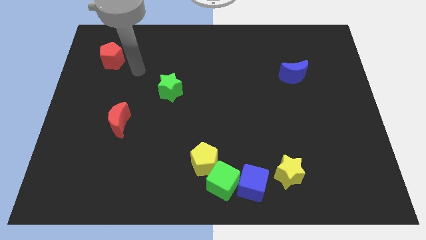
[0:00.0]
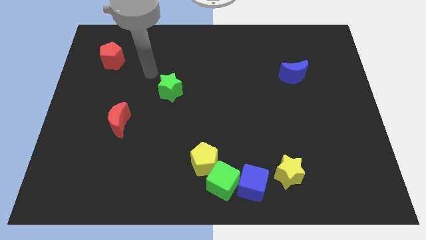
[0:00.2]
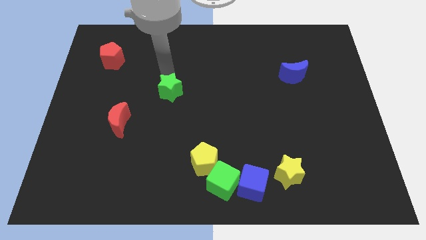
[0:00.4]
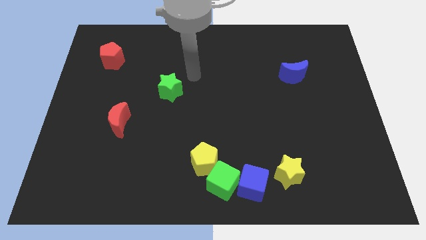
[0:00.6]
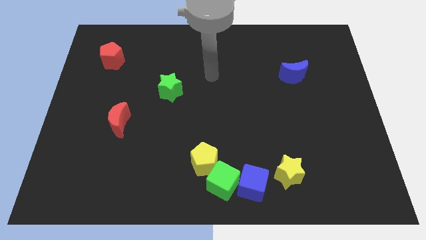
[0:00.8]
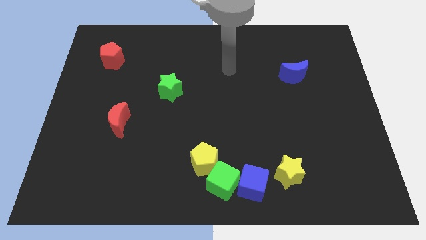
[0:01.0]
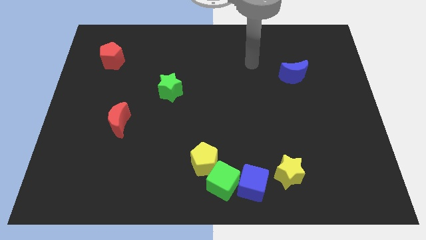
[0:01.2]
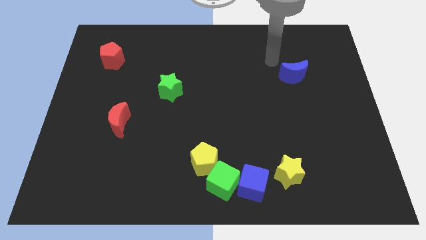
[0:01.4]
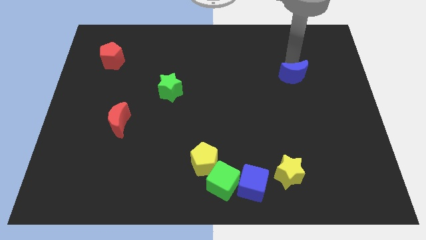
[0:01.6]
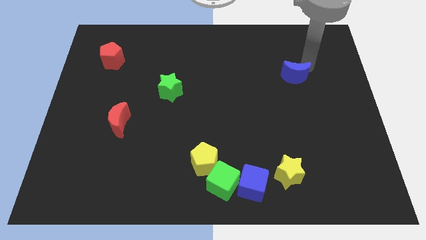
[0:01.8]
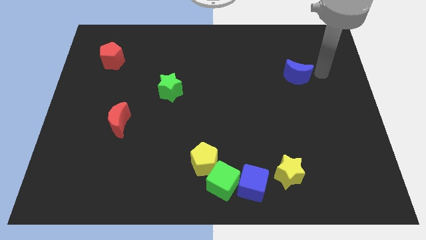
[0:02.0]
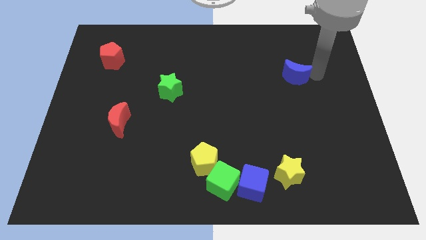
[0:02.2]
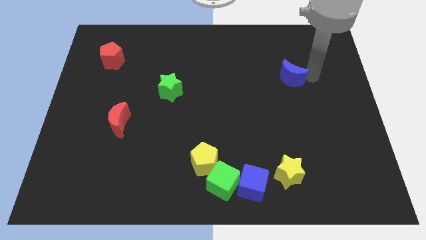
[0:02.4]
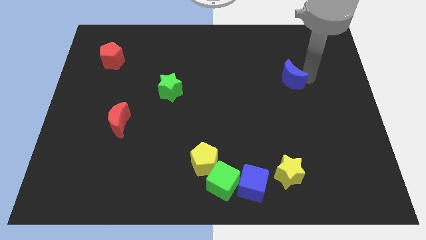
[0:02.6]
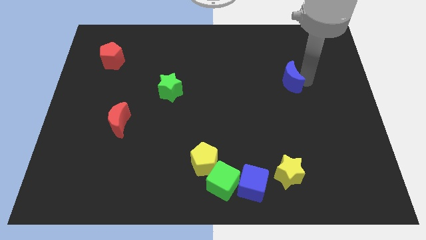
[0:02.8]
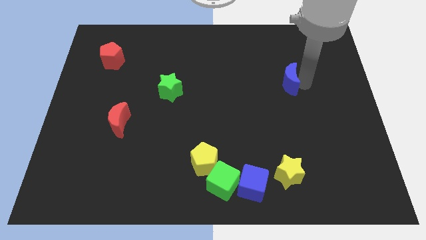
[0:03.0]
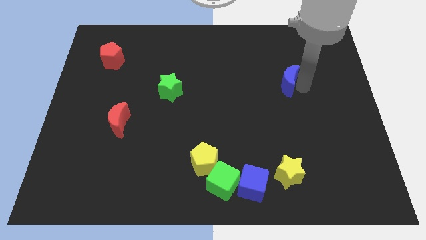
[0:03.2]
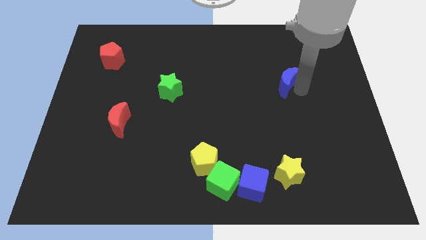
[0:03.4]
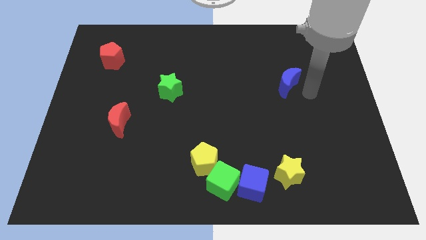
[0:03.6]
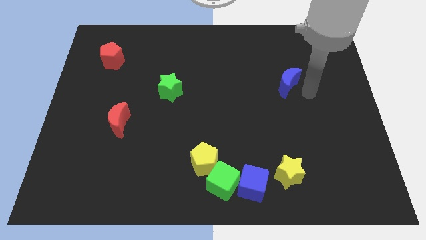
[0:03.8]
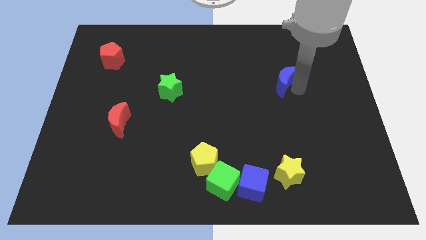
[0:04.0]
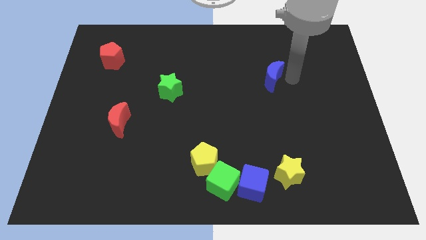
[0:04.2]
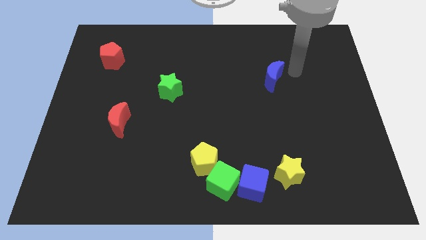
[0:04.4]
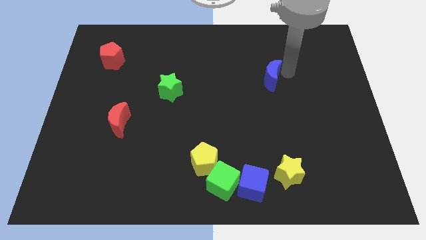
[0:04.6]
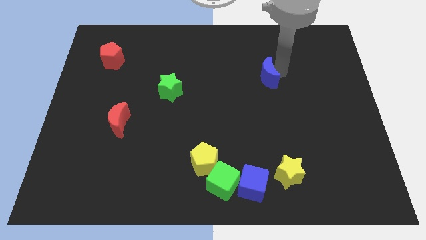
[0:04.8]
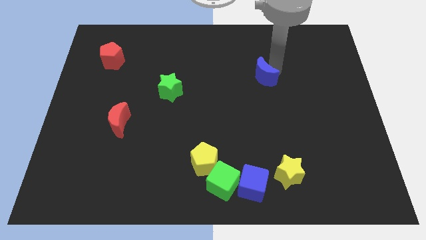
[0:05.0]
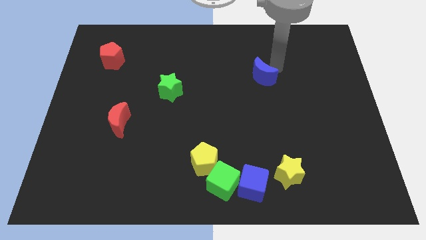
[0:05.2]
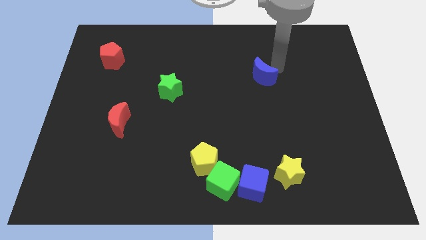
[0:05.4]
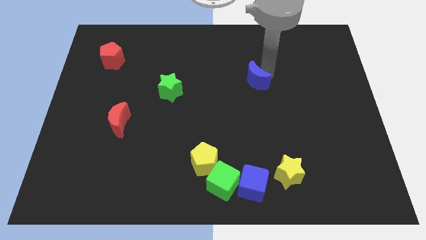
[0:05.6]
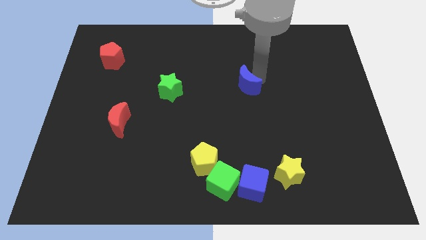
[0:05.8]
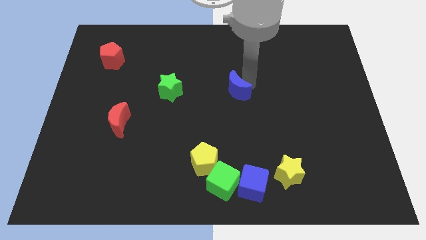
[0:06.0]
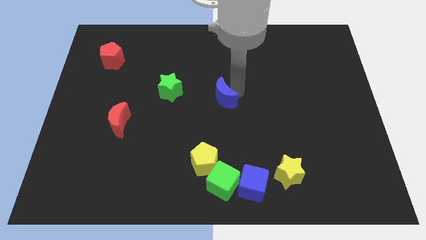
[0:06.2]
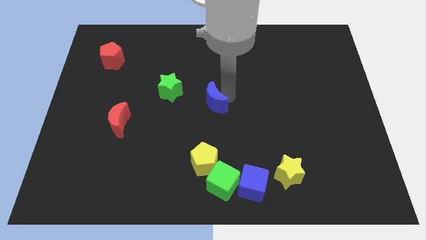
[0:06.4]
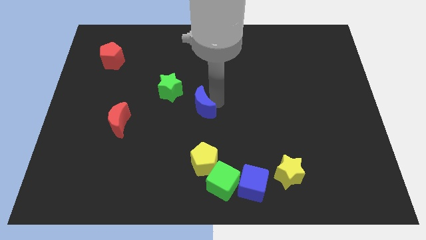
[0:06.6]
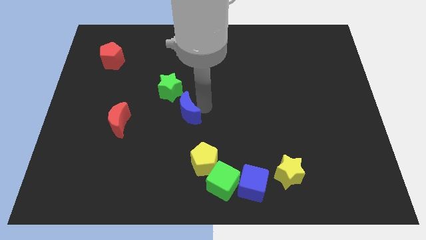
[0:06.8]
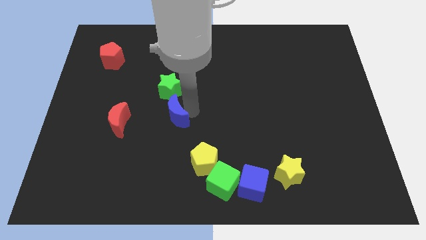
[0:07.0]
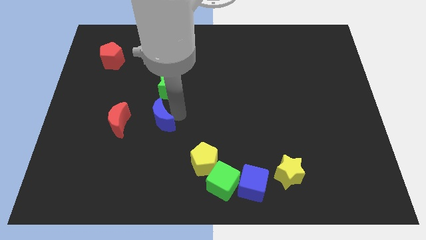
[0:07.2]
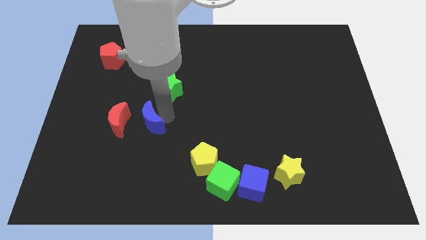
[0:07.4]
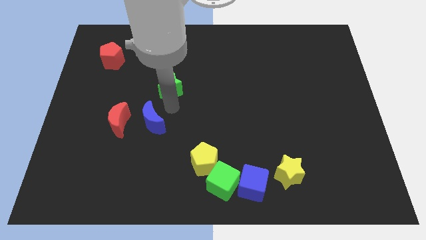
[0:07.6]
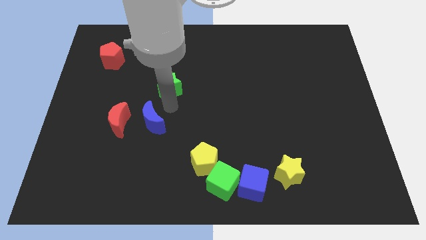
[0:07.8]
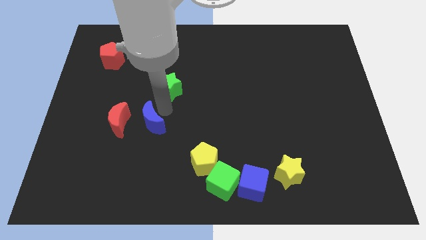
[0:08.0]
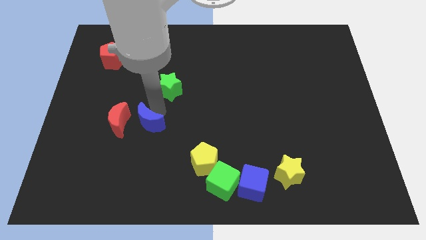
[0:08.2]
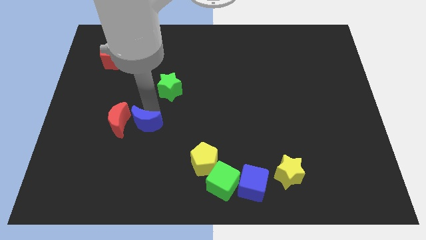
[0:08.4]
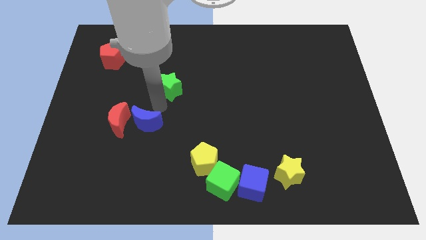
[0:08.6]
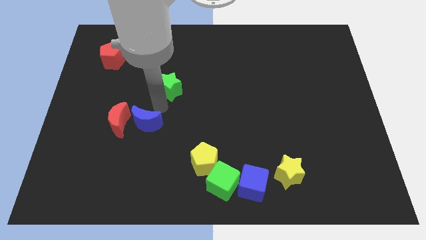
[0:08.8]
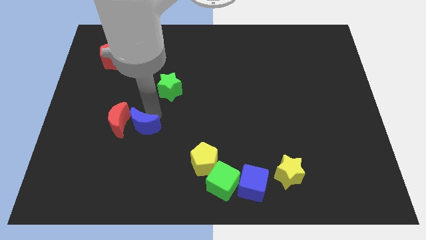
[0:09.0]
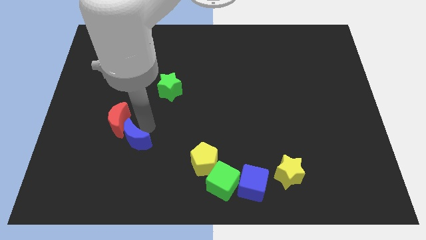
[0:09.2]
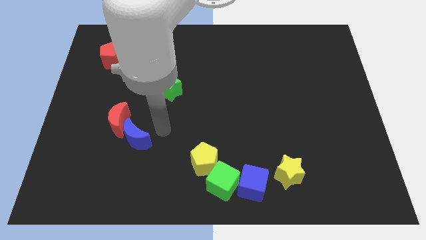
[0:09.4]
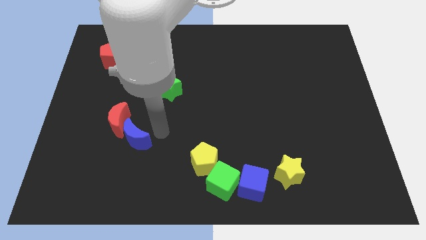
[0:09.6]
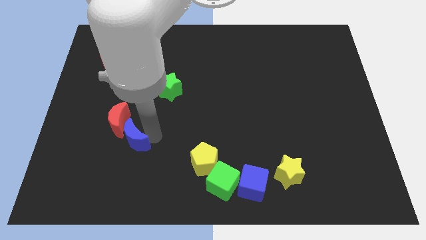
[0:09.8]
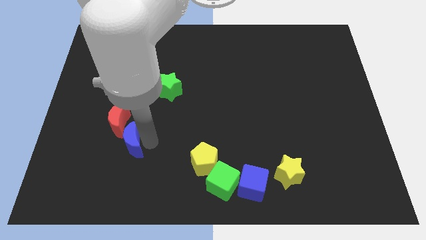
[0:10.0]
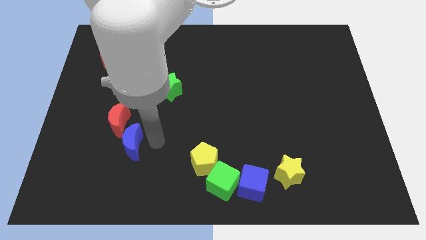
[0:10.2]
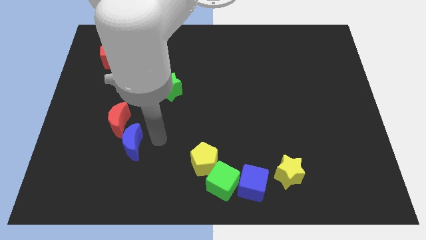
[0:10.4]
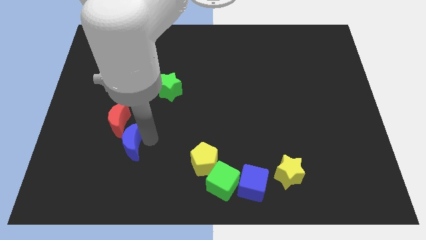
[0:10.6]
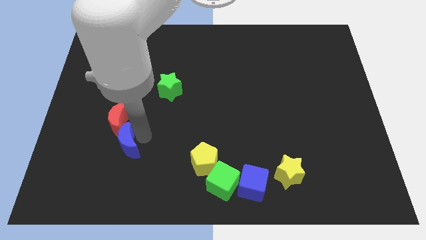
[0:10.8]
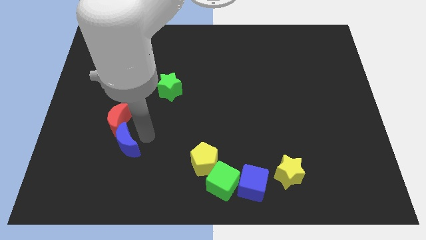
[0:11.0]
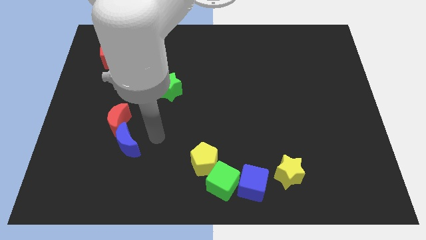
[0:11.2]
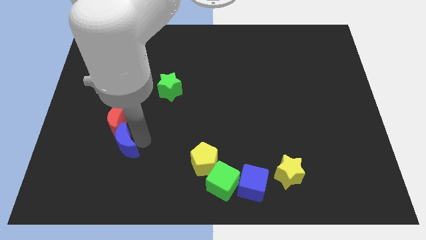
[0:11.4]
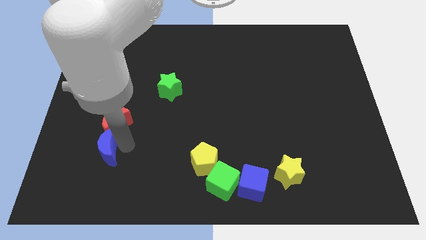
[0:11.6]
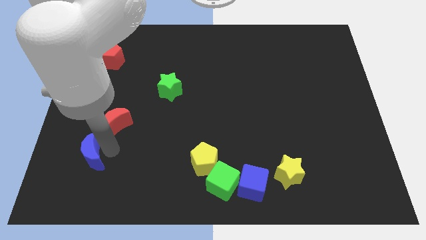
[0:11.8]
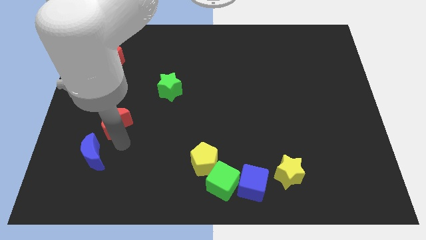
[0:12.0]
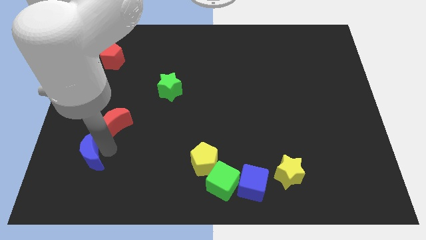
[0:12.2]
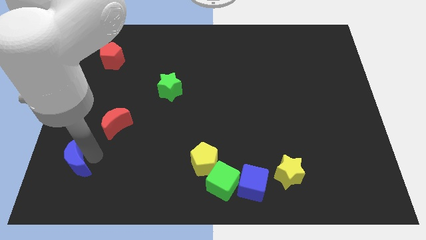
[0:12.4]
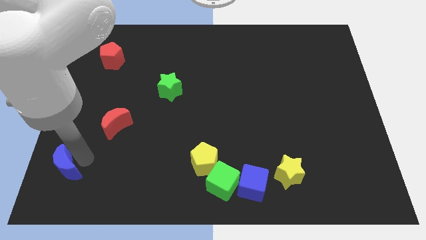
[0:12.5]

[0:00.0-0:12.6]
move the blue moon to the bottom left corner

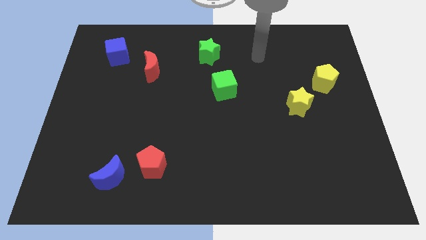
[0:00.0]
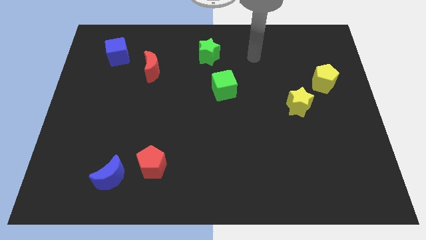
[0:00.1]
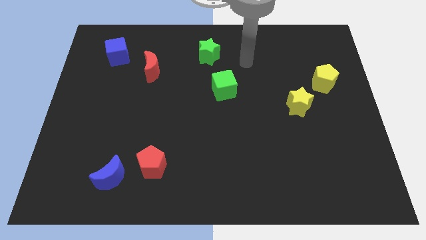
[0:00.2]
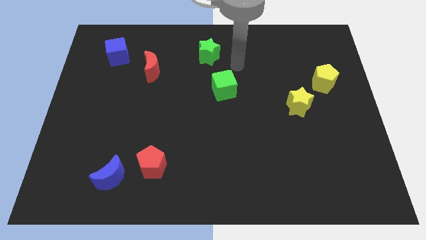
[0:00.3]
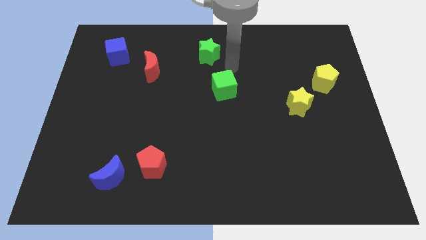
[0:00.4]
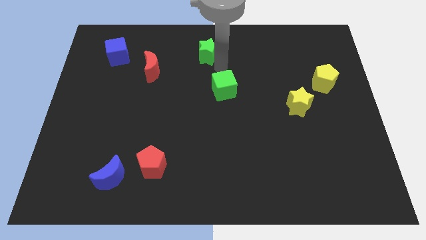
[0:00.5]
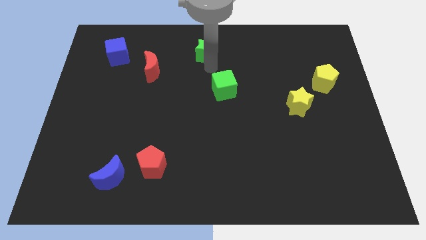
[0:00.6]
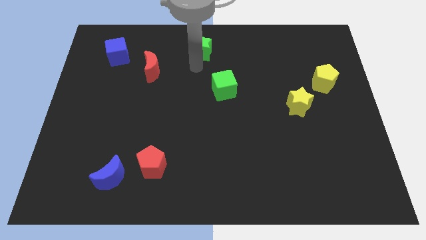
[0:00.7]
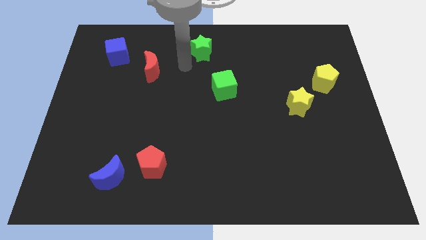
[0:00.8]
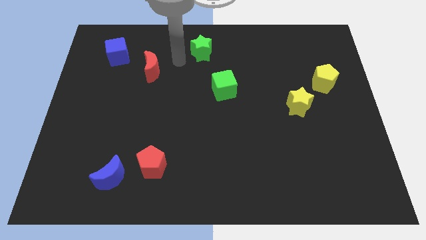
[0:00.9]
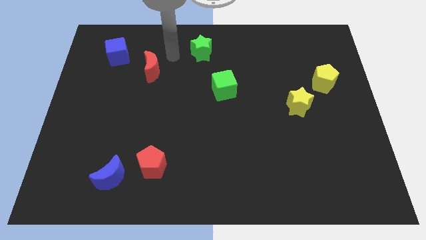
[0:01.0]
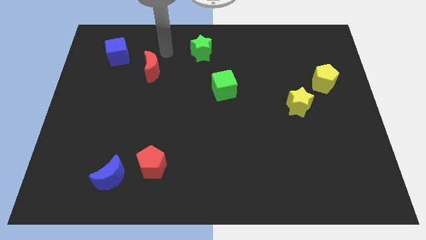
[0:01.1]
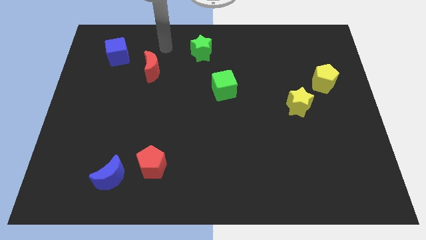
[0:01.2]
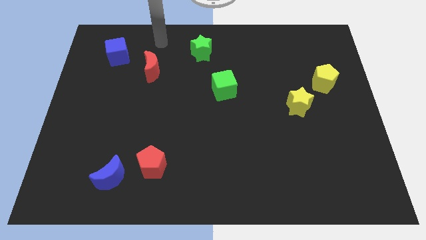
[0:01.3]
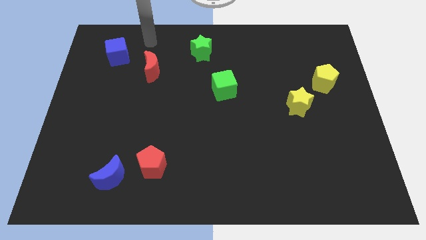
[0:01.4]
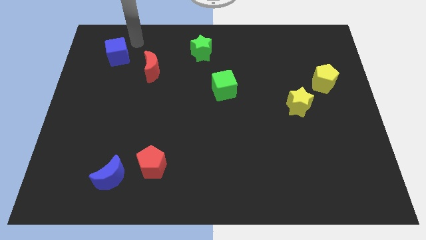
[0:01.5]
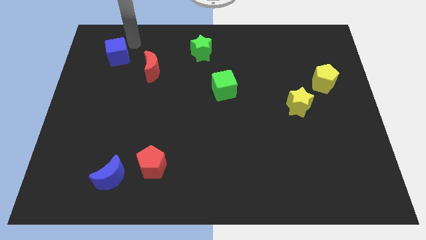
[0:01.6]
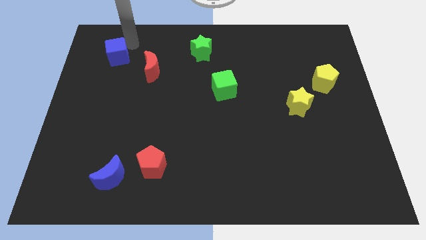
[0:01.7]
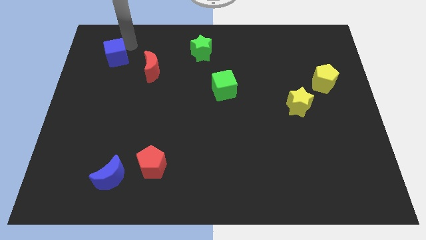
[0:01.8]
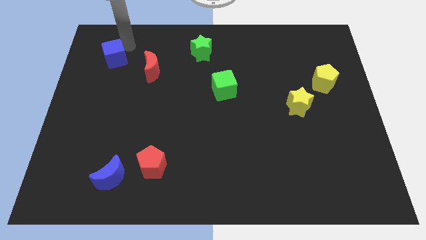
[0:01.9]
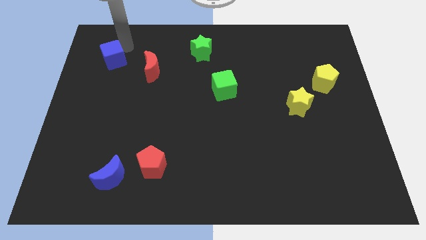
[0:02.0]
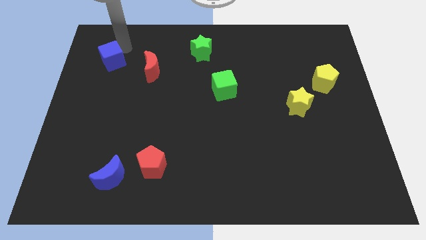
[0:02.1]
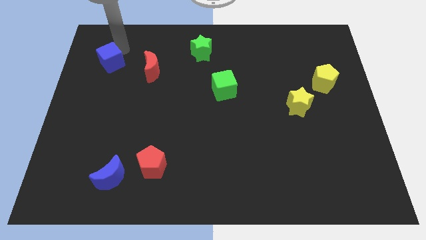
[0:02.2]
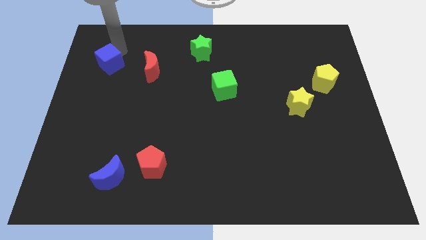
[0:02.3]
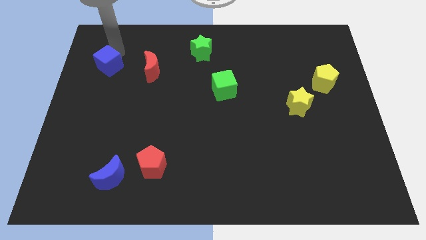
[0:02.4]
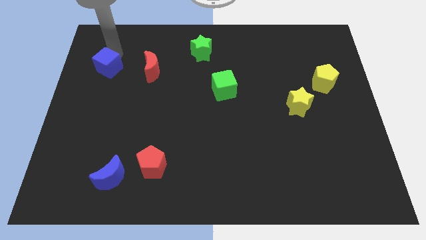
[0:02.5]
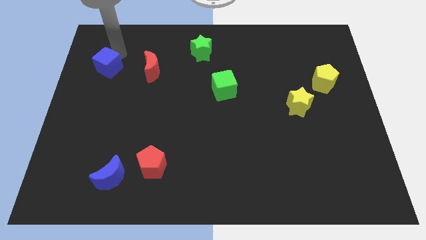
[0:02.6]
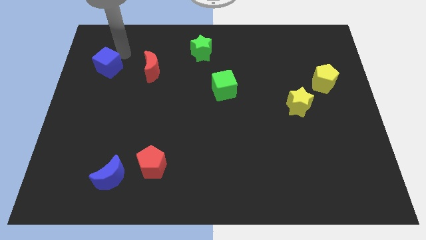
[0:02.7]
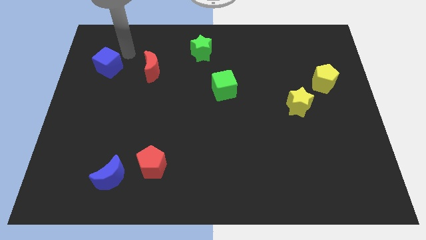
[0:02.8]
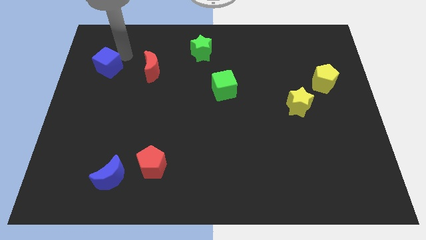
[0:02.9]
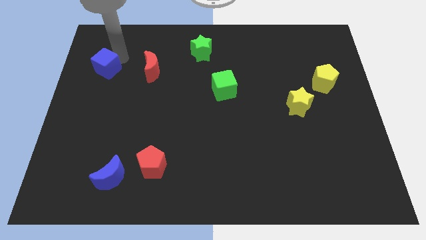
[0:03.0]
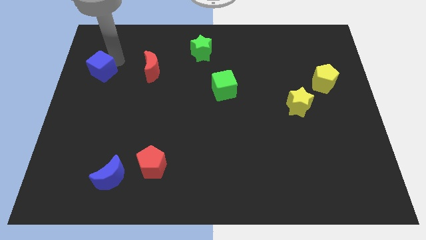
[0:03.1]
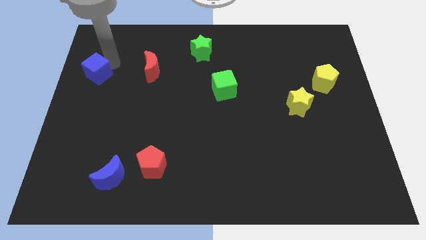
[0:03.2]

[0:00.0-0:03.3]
put the blue cube to the left side
